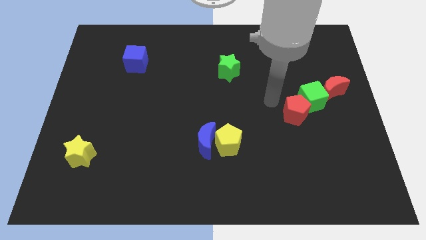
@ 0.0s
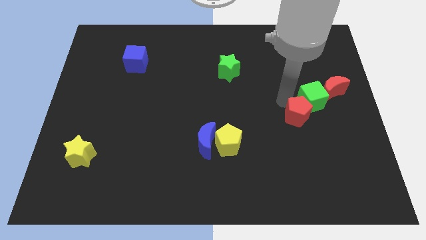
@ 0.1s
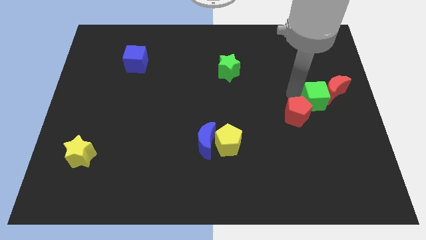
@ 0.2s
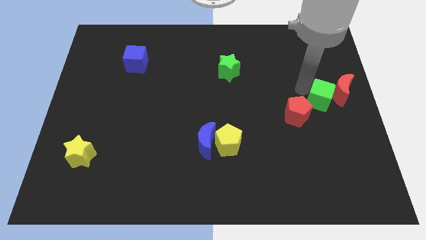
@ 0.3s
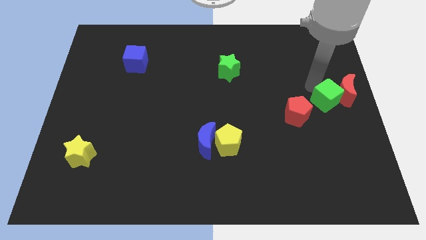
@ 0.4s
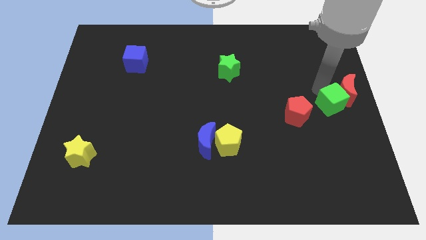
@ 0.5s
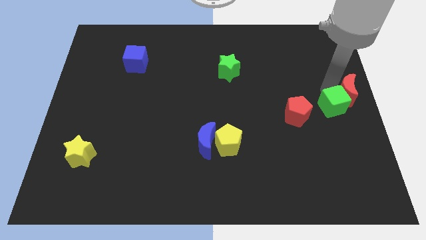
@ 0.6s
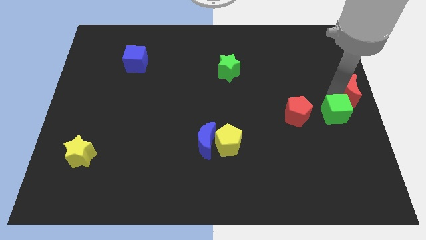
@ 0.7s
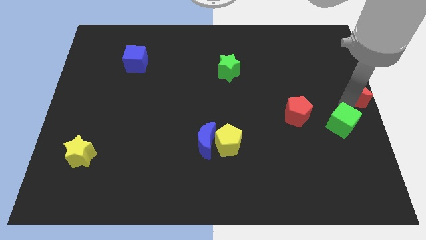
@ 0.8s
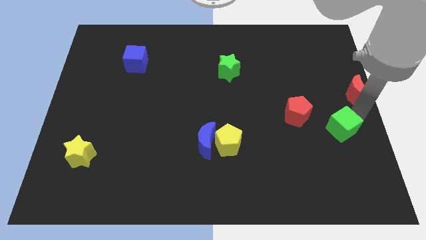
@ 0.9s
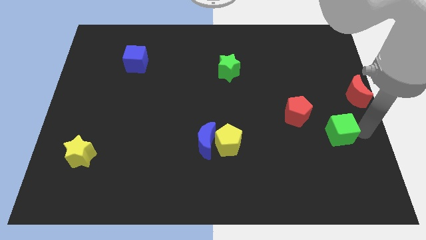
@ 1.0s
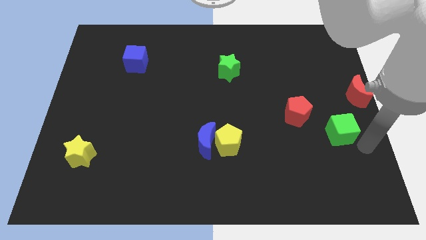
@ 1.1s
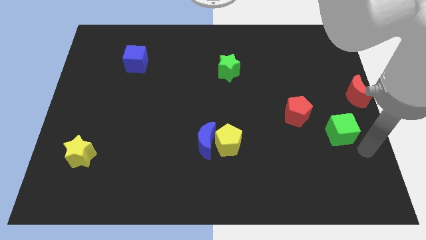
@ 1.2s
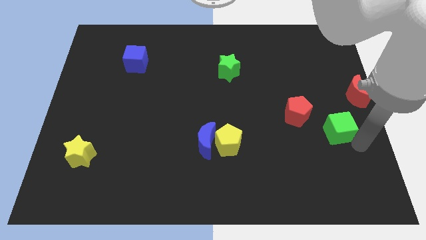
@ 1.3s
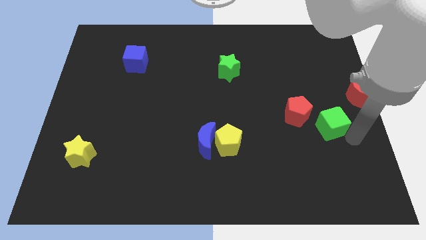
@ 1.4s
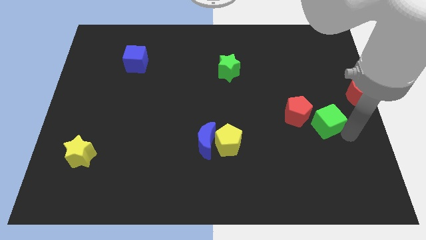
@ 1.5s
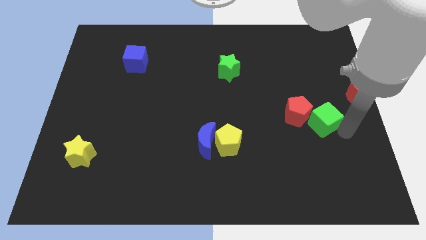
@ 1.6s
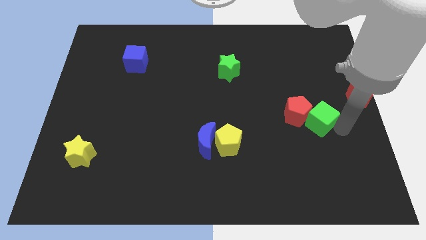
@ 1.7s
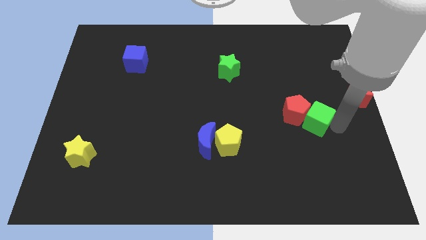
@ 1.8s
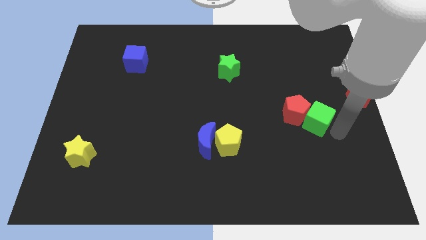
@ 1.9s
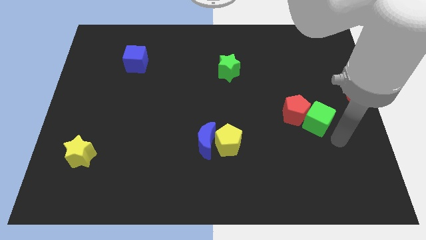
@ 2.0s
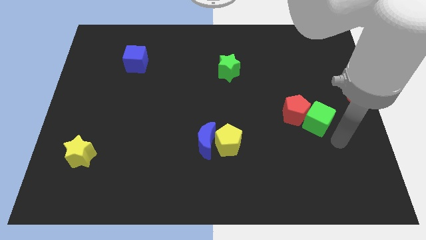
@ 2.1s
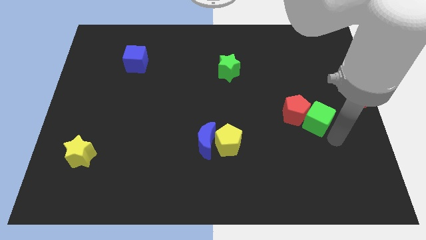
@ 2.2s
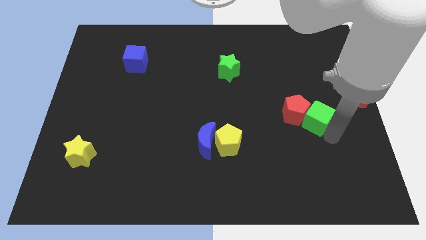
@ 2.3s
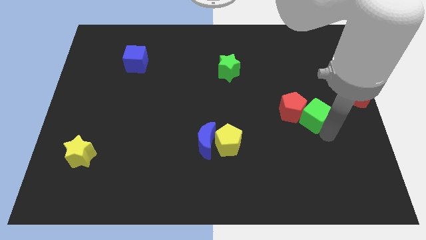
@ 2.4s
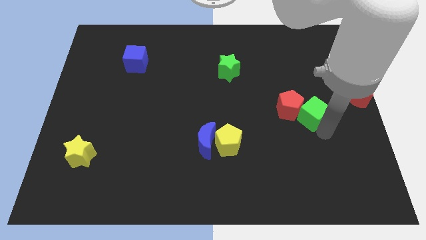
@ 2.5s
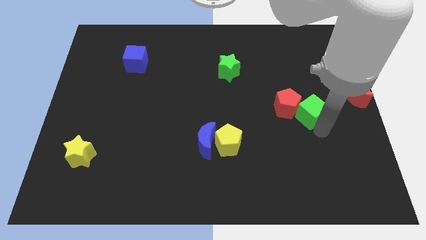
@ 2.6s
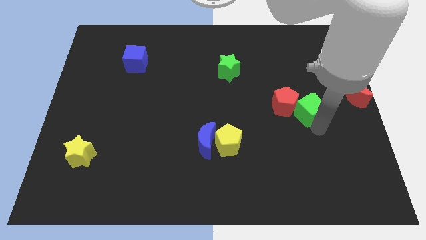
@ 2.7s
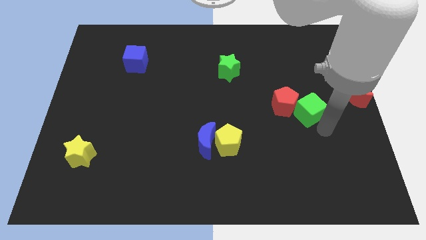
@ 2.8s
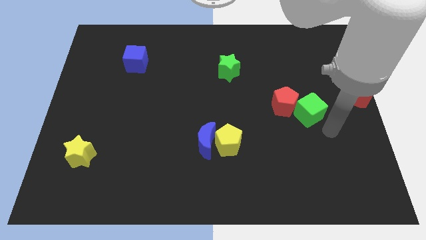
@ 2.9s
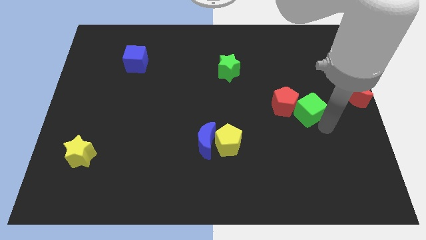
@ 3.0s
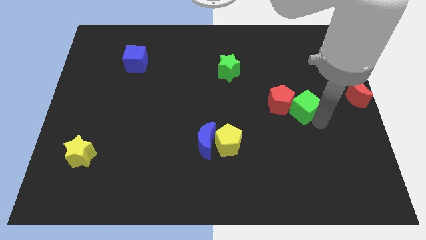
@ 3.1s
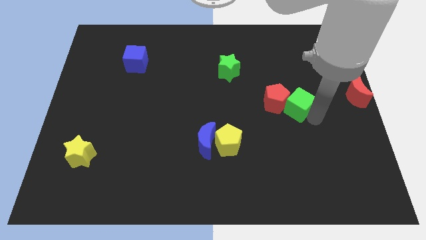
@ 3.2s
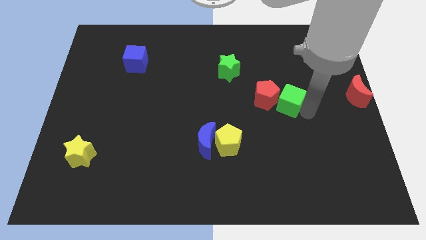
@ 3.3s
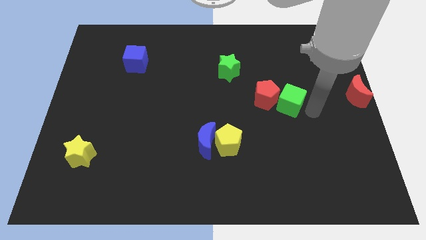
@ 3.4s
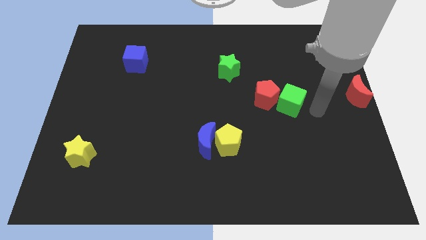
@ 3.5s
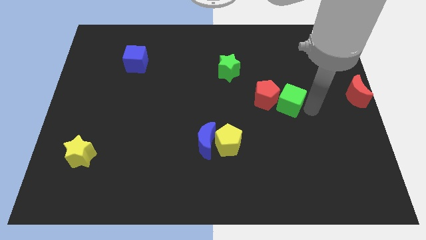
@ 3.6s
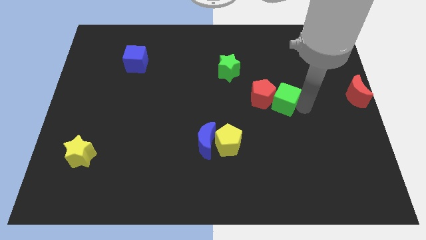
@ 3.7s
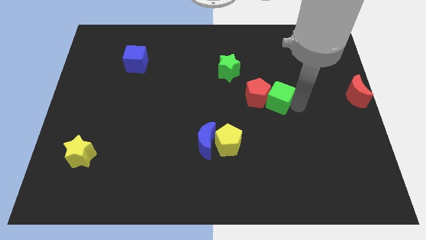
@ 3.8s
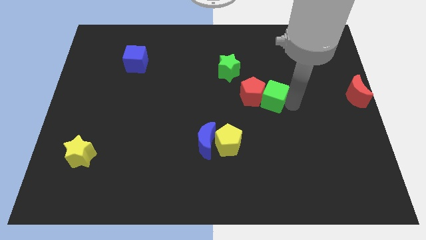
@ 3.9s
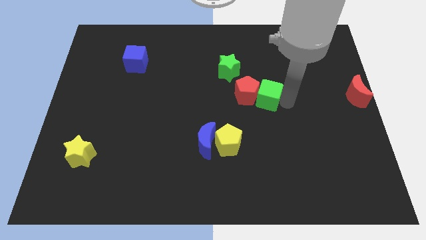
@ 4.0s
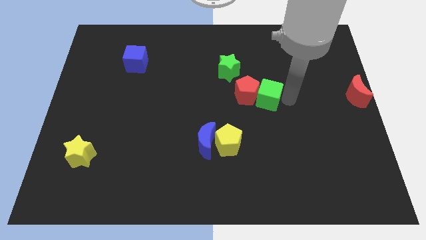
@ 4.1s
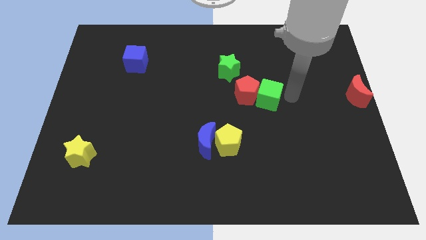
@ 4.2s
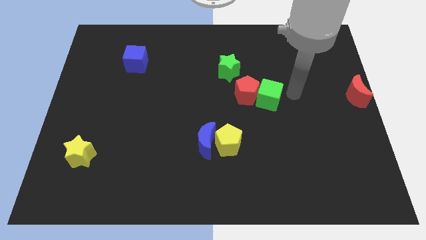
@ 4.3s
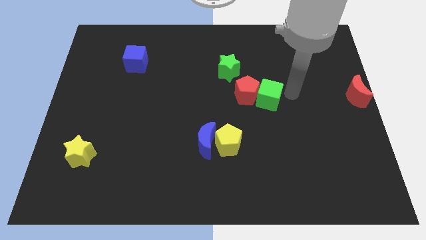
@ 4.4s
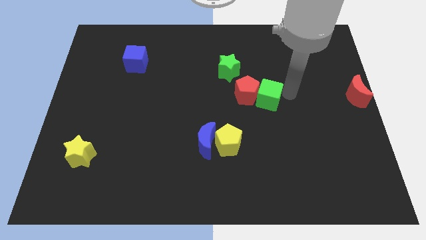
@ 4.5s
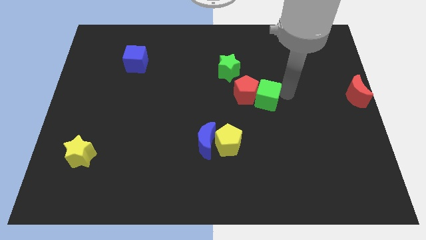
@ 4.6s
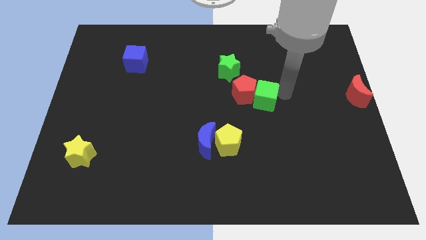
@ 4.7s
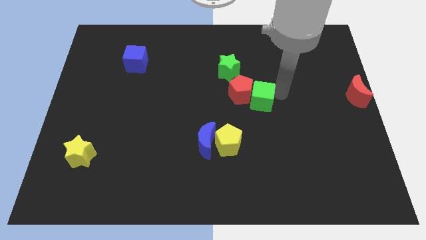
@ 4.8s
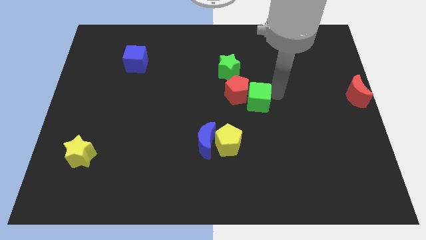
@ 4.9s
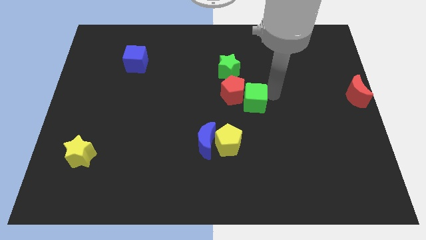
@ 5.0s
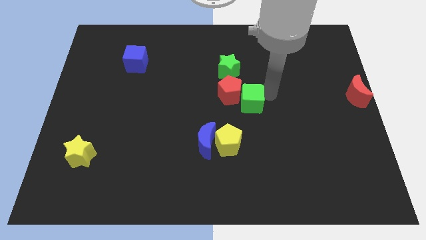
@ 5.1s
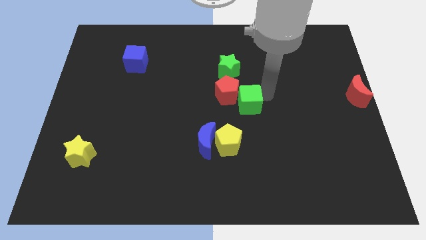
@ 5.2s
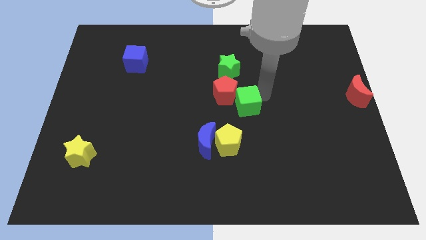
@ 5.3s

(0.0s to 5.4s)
move the green cube above the yellow pentagon

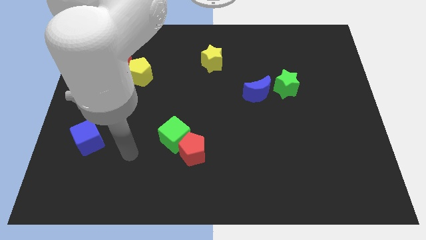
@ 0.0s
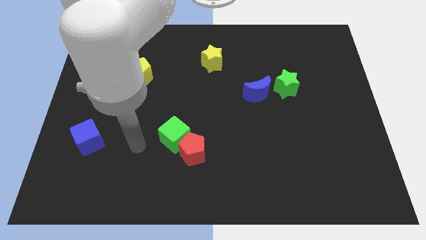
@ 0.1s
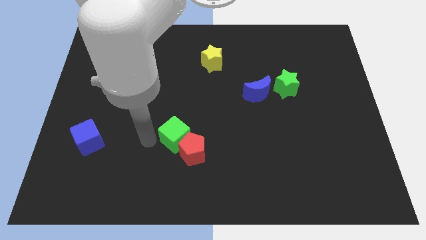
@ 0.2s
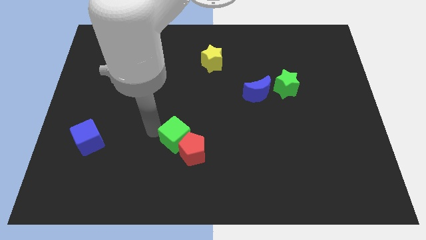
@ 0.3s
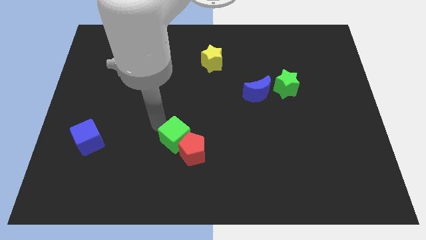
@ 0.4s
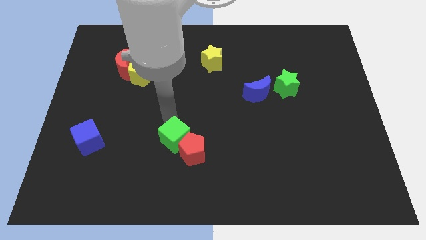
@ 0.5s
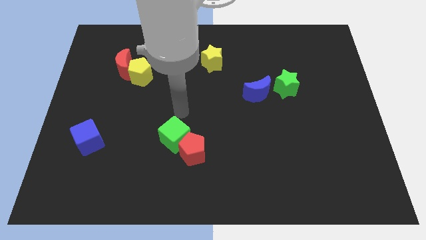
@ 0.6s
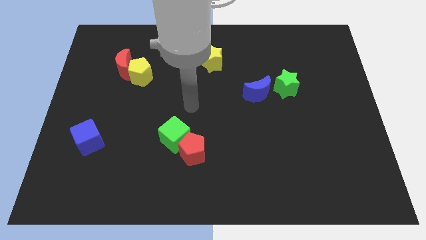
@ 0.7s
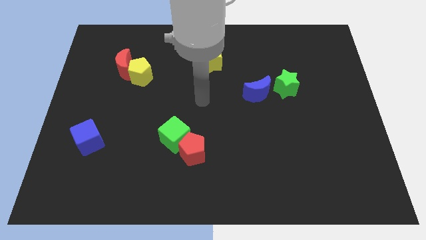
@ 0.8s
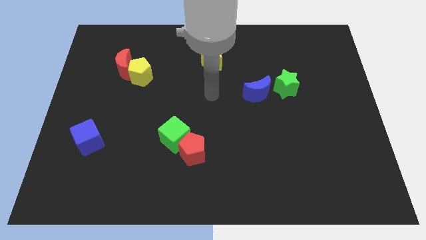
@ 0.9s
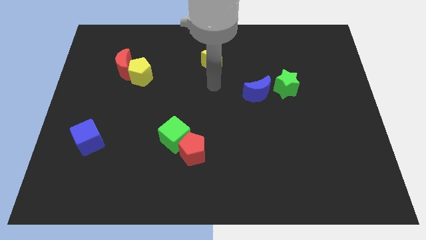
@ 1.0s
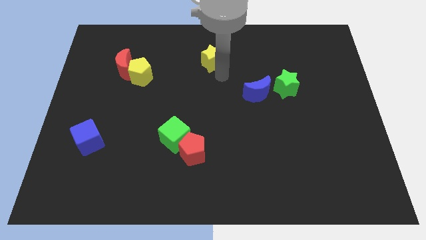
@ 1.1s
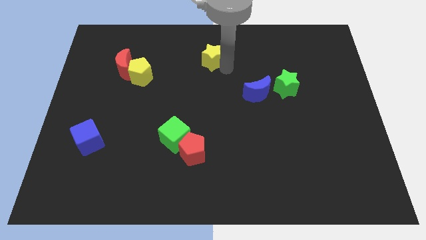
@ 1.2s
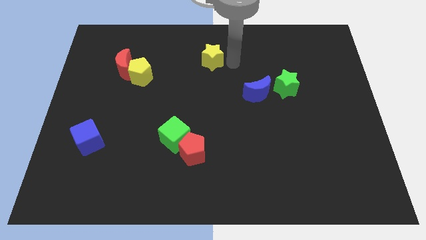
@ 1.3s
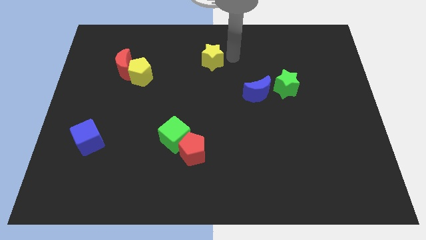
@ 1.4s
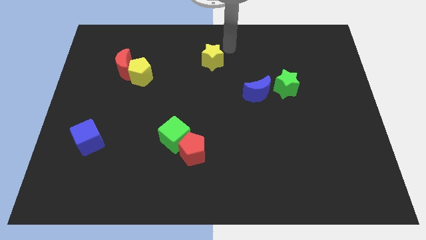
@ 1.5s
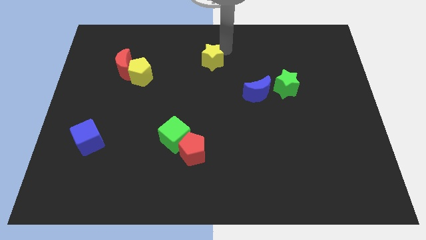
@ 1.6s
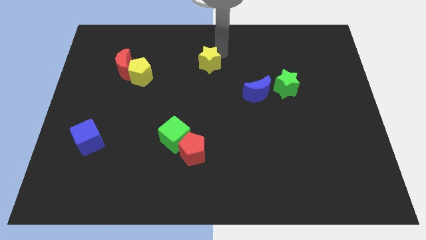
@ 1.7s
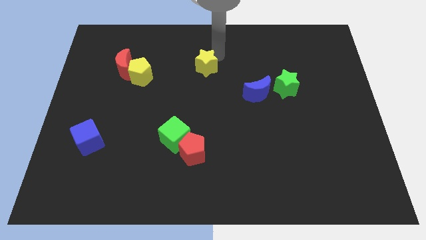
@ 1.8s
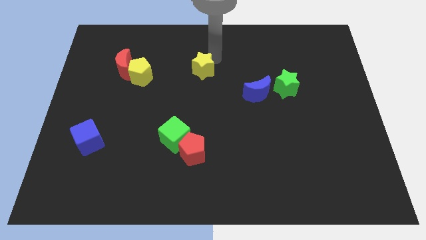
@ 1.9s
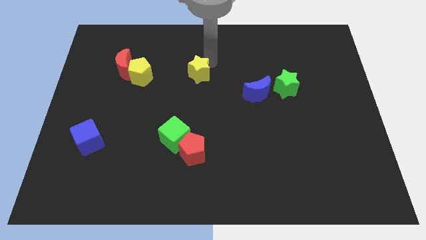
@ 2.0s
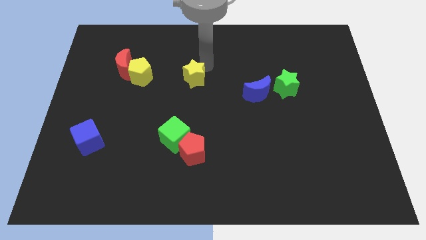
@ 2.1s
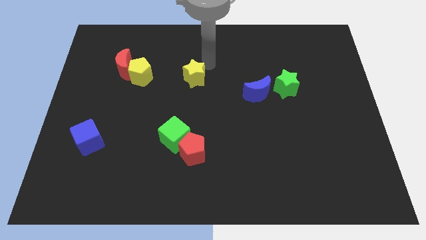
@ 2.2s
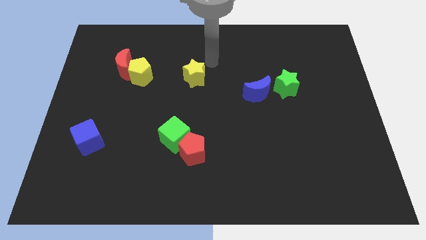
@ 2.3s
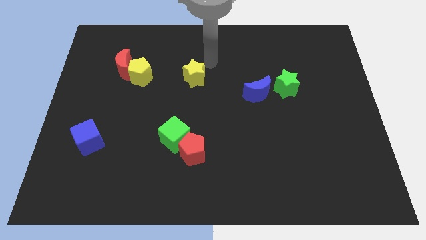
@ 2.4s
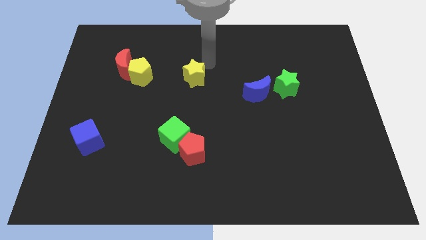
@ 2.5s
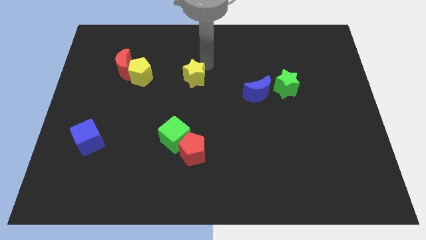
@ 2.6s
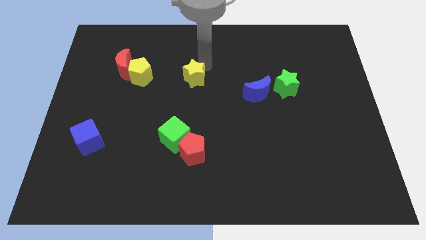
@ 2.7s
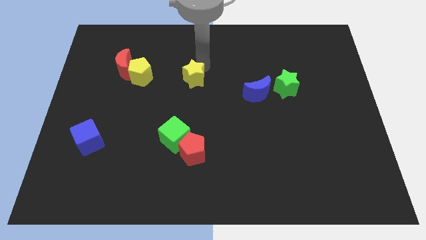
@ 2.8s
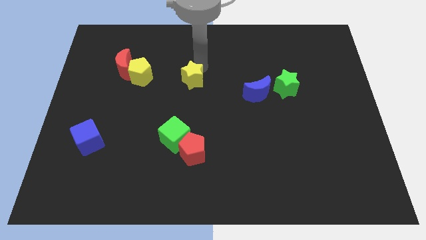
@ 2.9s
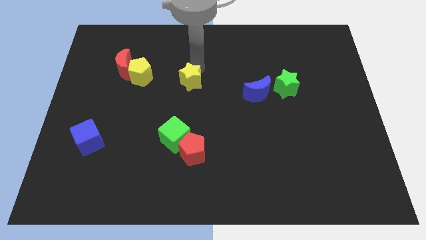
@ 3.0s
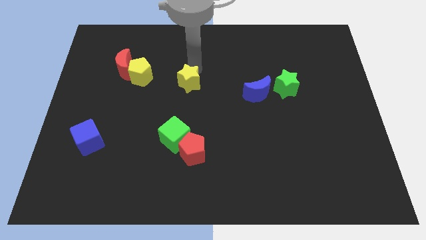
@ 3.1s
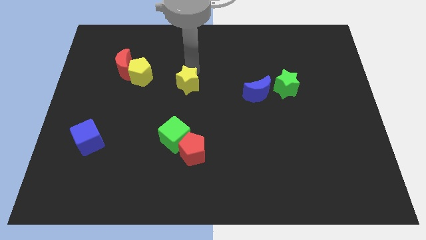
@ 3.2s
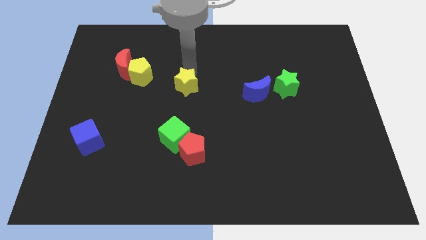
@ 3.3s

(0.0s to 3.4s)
put the yellow star to the top of the green cube
